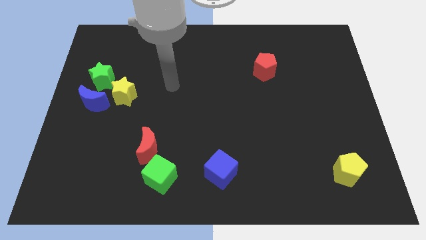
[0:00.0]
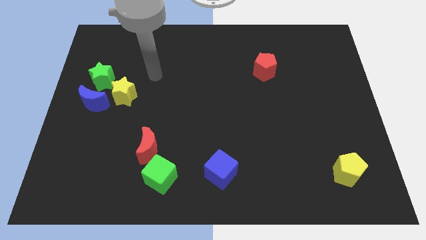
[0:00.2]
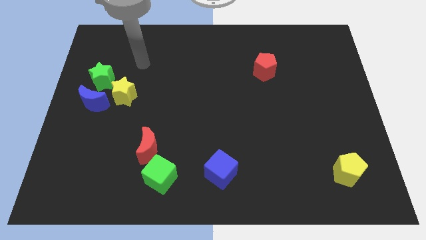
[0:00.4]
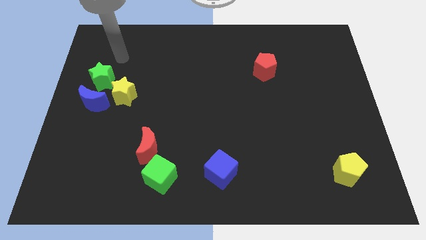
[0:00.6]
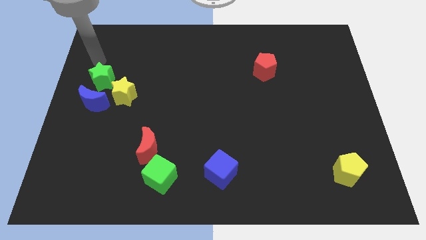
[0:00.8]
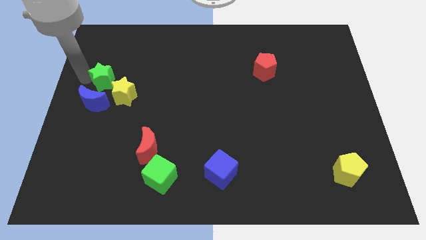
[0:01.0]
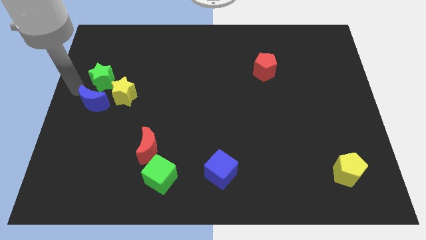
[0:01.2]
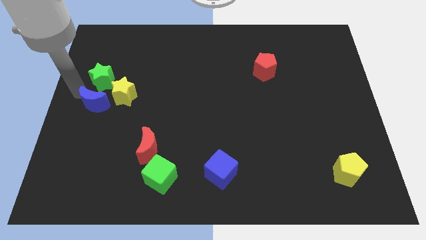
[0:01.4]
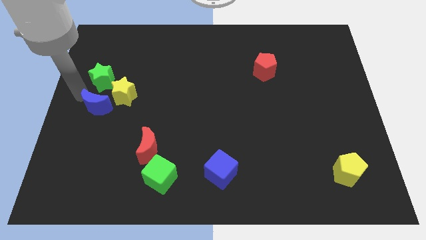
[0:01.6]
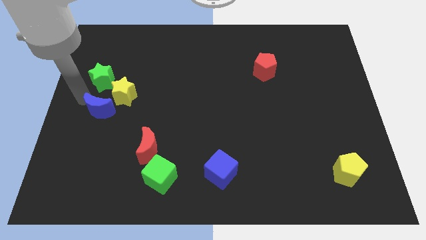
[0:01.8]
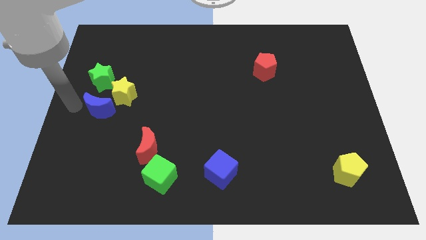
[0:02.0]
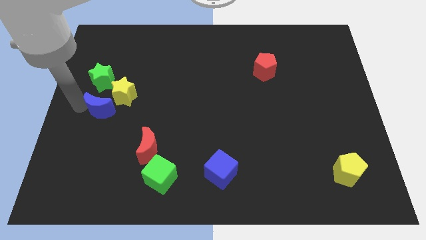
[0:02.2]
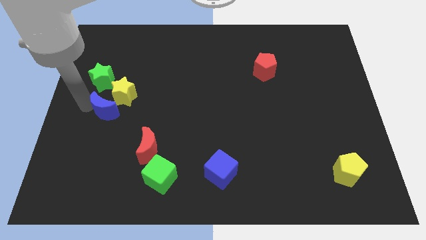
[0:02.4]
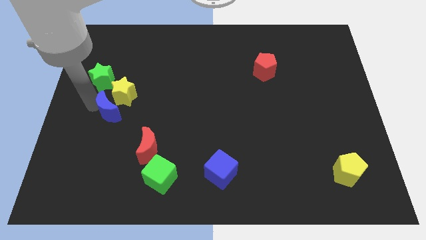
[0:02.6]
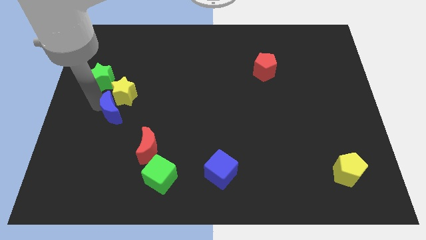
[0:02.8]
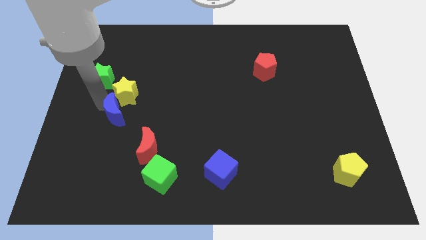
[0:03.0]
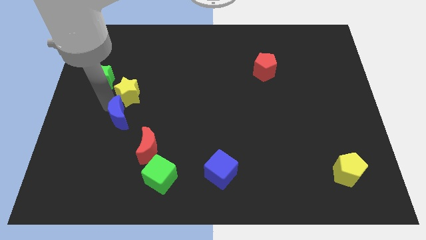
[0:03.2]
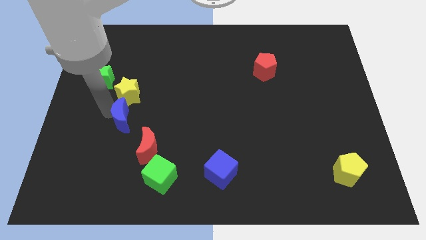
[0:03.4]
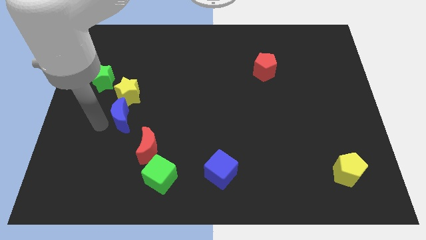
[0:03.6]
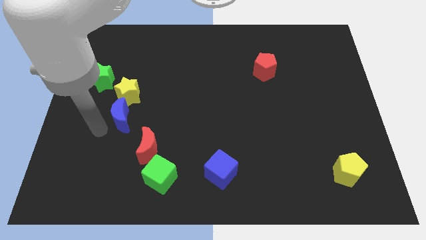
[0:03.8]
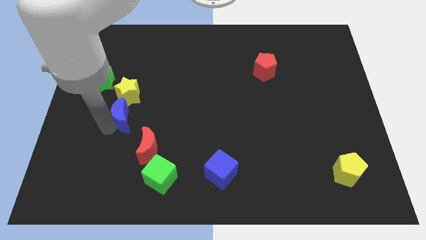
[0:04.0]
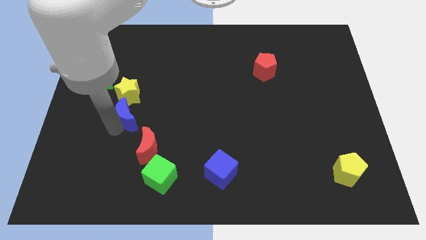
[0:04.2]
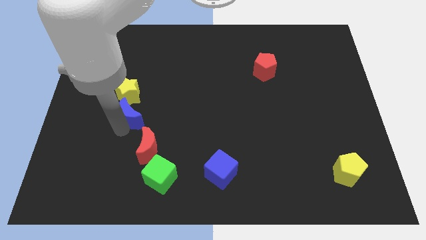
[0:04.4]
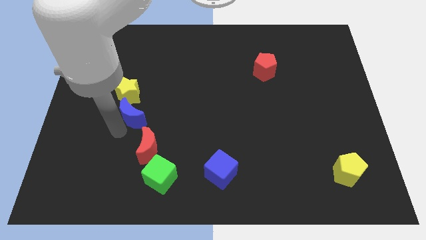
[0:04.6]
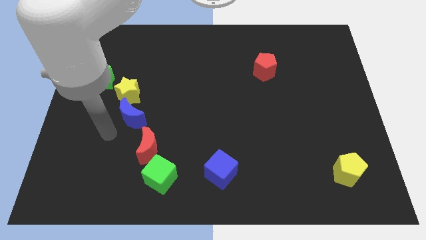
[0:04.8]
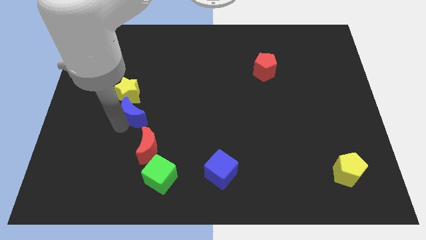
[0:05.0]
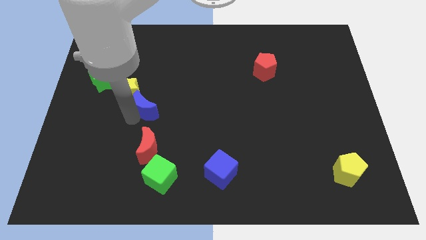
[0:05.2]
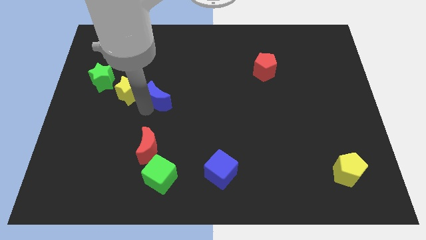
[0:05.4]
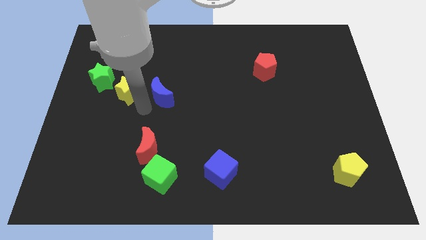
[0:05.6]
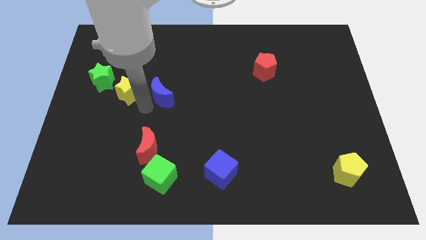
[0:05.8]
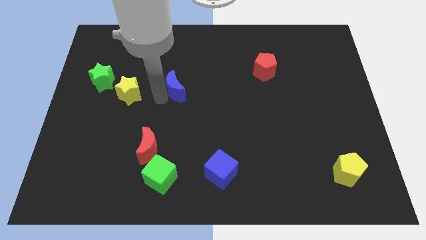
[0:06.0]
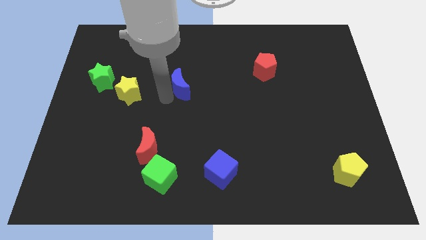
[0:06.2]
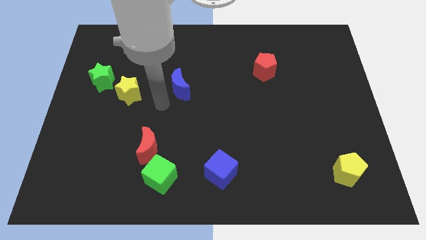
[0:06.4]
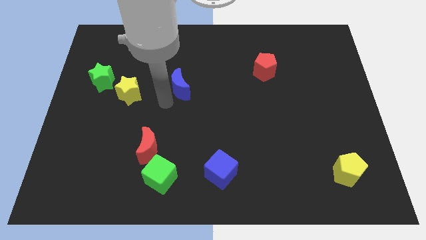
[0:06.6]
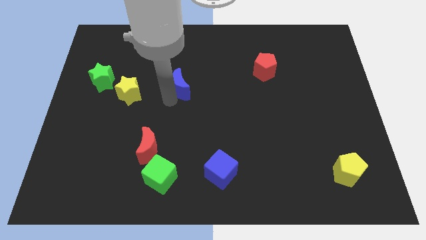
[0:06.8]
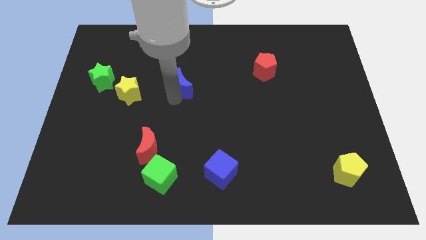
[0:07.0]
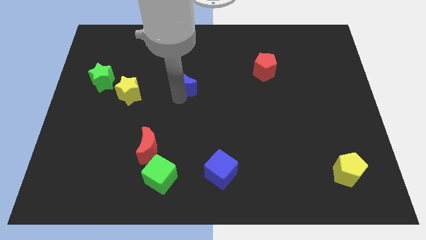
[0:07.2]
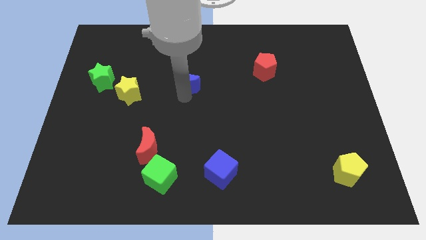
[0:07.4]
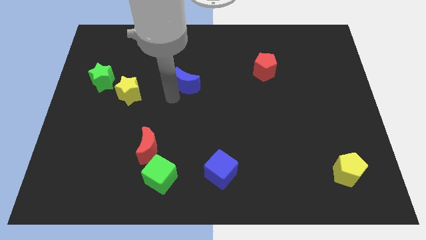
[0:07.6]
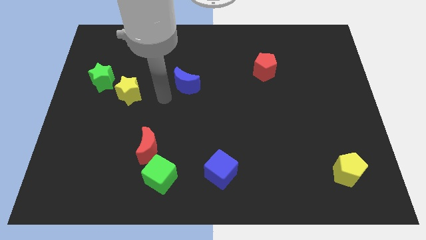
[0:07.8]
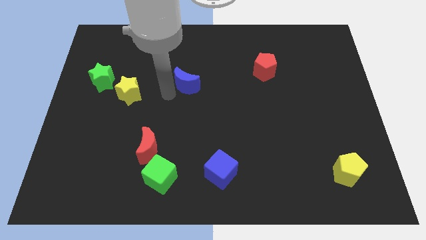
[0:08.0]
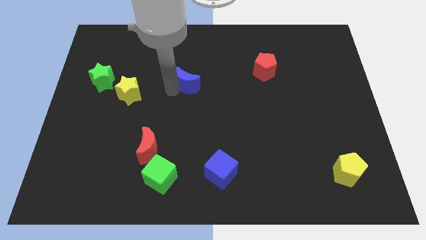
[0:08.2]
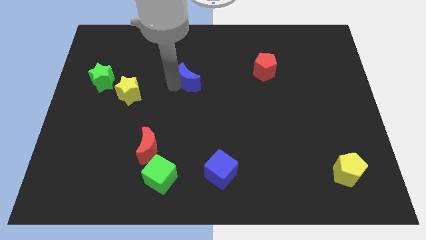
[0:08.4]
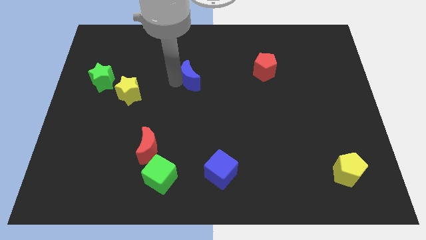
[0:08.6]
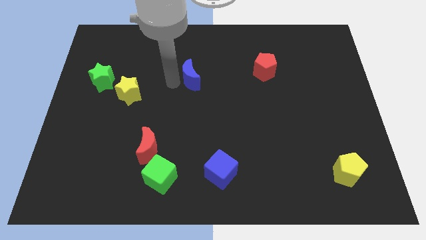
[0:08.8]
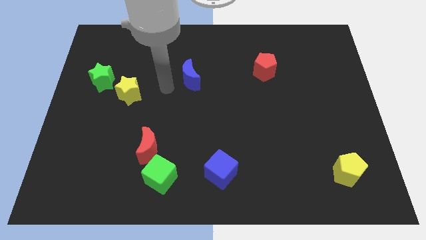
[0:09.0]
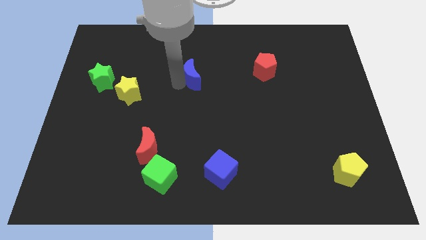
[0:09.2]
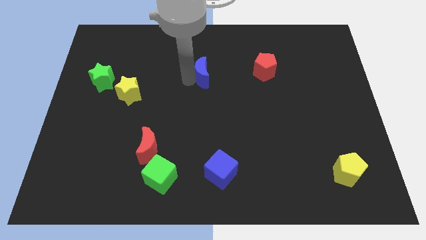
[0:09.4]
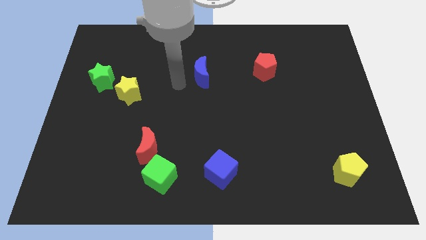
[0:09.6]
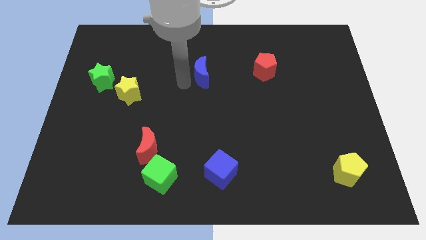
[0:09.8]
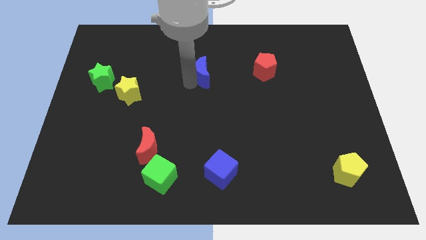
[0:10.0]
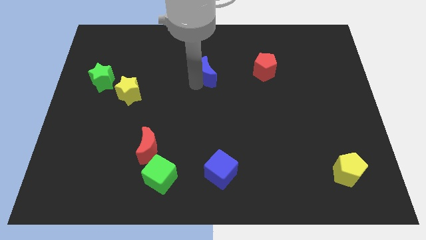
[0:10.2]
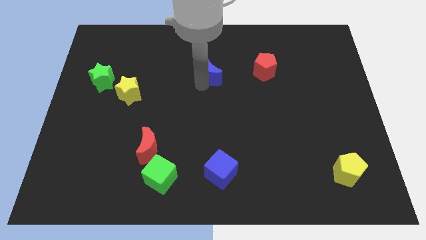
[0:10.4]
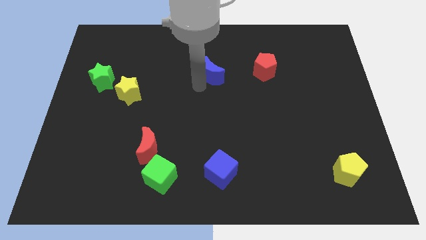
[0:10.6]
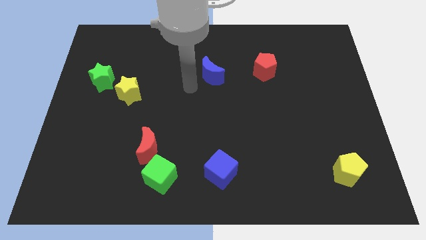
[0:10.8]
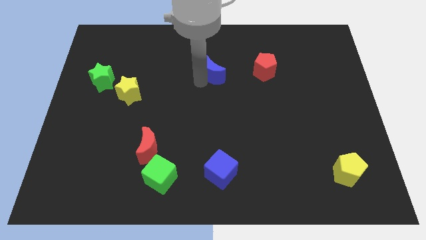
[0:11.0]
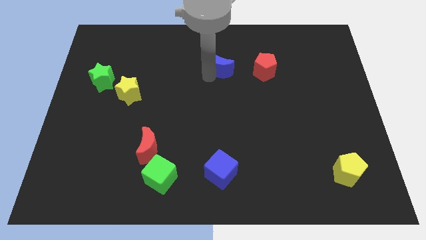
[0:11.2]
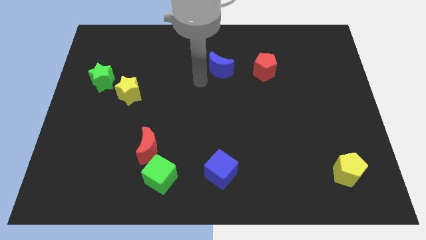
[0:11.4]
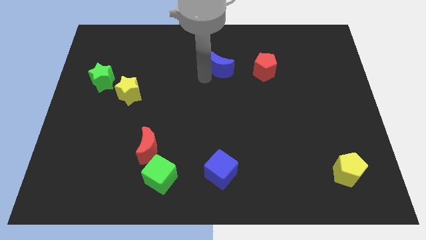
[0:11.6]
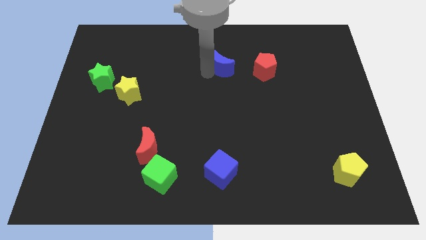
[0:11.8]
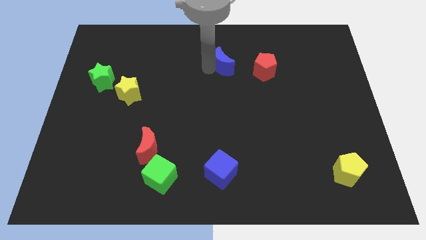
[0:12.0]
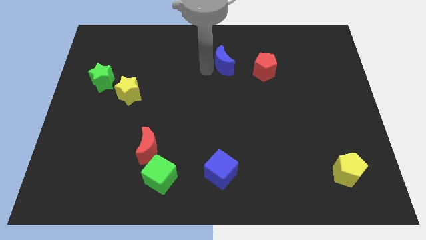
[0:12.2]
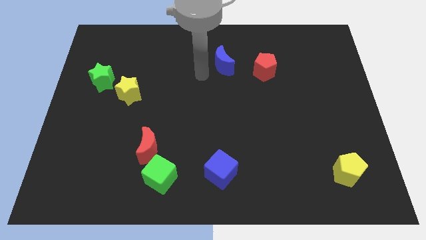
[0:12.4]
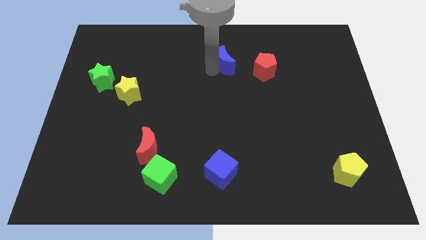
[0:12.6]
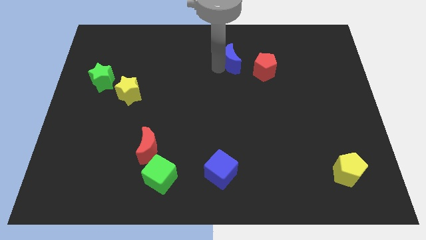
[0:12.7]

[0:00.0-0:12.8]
push the blue moon to the top left of the red pentagon

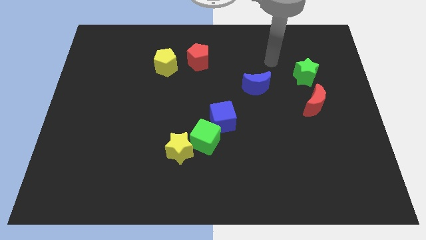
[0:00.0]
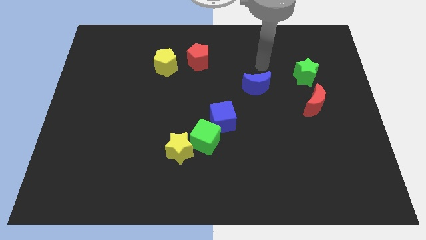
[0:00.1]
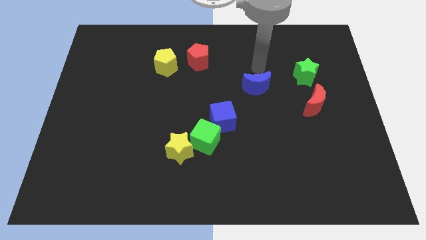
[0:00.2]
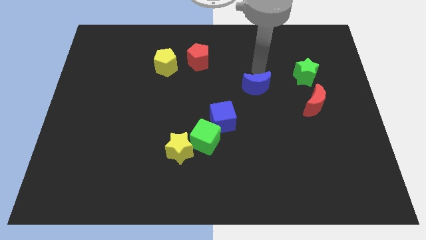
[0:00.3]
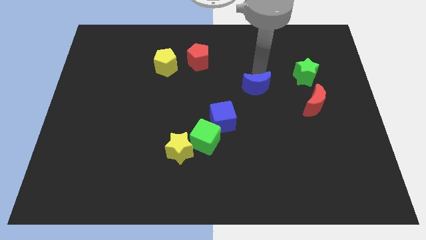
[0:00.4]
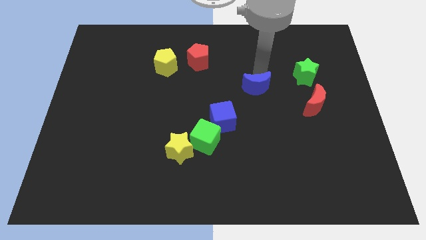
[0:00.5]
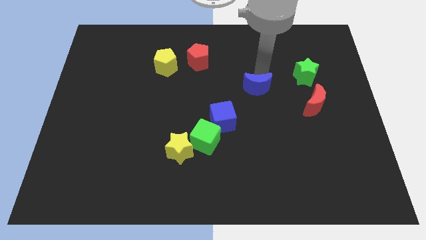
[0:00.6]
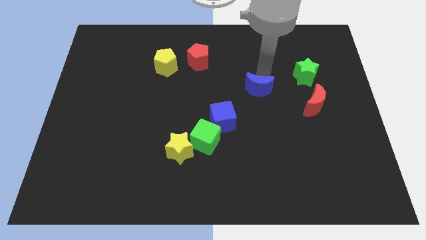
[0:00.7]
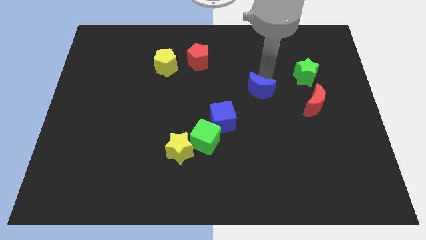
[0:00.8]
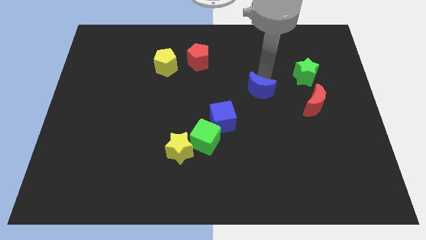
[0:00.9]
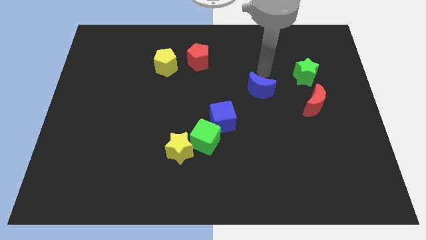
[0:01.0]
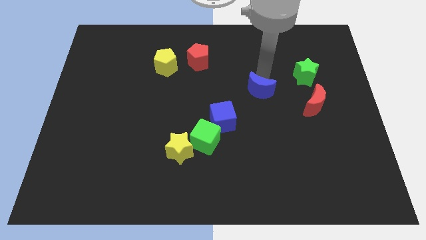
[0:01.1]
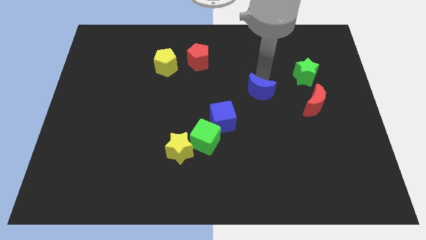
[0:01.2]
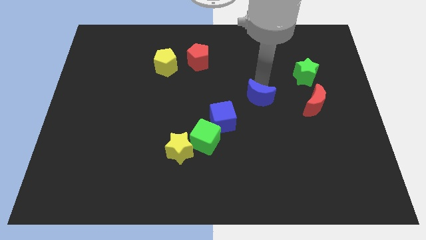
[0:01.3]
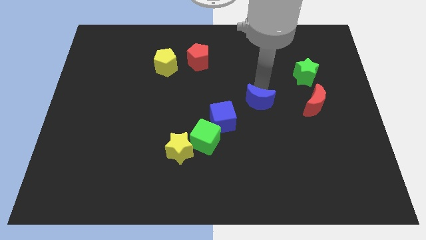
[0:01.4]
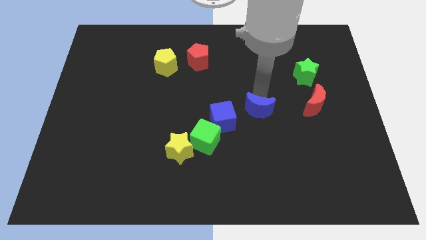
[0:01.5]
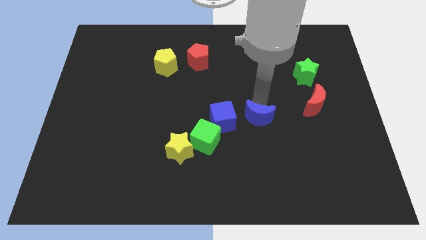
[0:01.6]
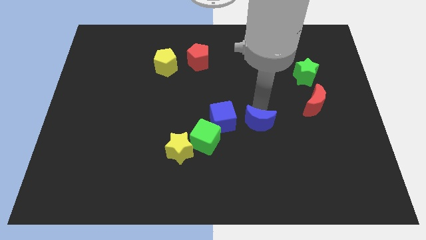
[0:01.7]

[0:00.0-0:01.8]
put the blue moon to the right of the green cube
